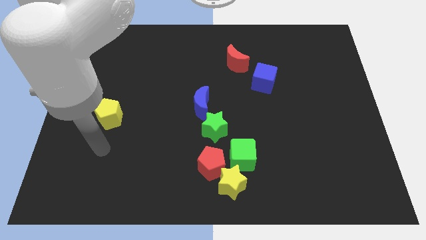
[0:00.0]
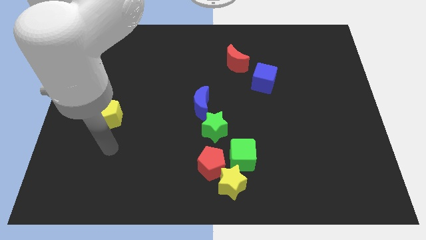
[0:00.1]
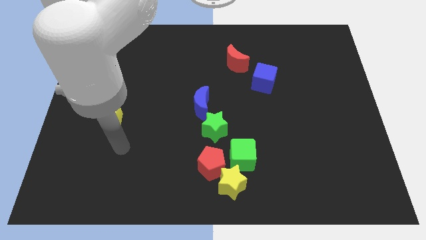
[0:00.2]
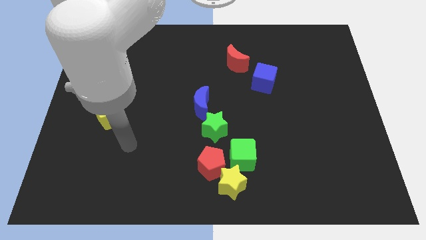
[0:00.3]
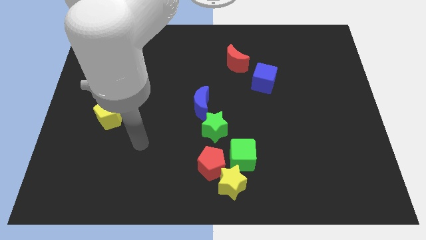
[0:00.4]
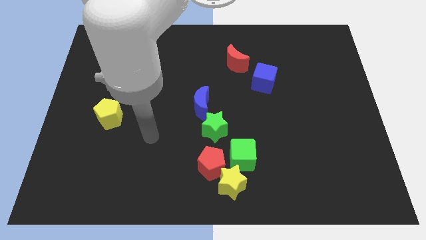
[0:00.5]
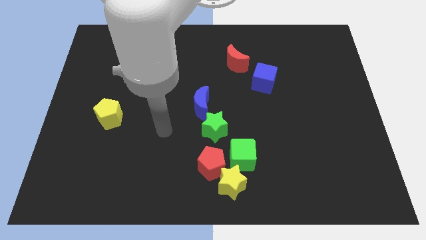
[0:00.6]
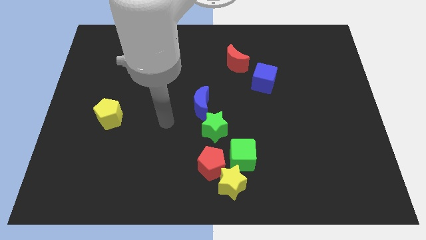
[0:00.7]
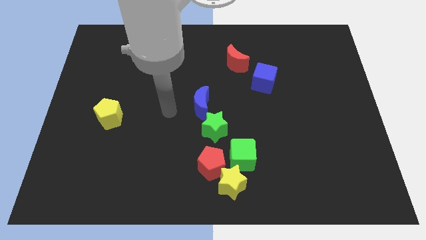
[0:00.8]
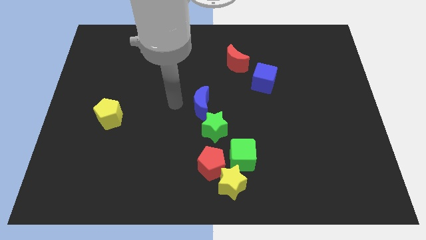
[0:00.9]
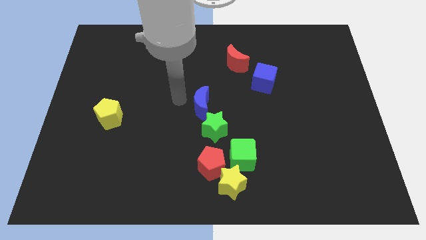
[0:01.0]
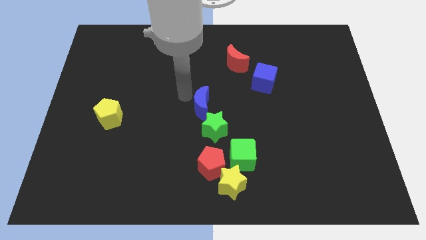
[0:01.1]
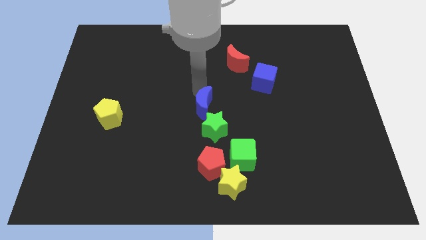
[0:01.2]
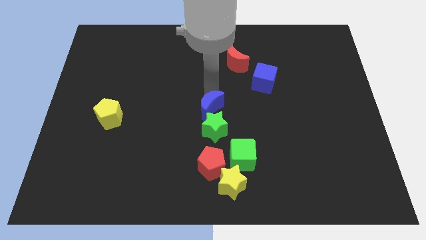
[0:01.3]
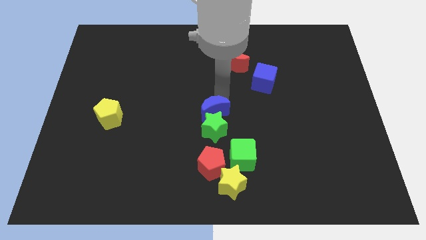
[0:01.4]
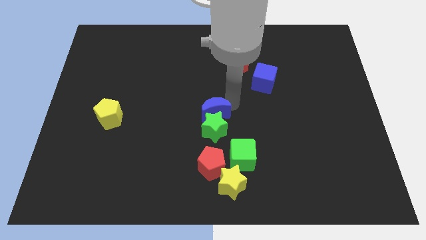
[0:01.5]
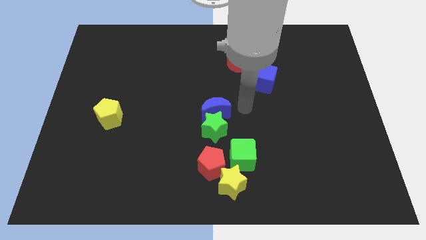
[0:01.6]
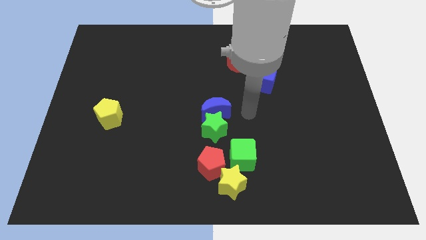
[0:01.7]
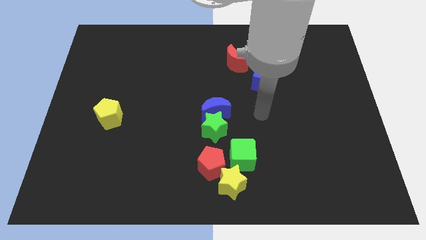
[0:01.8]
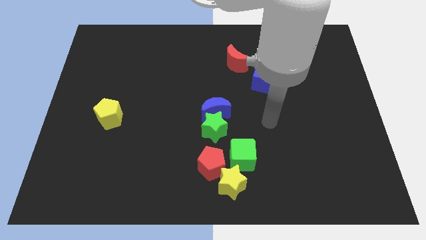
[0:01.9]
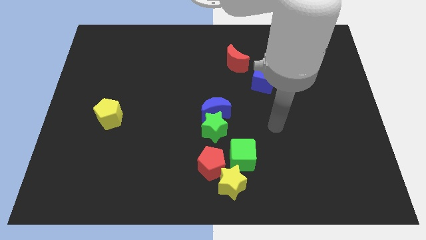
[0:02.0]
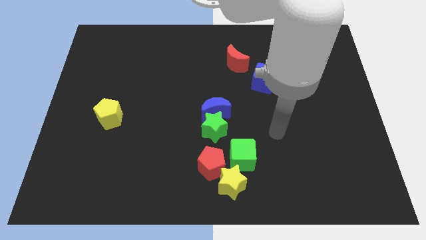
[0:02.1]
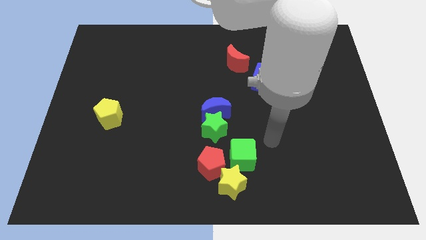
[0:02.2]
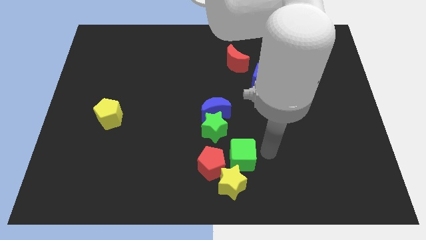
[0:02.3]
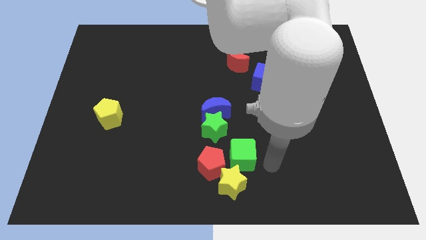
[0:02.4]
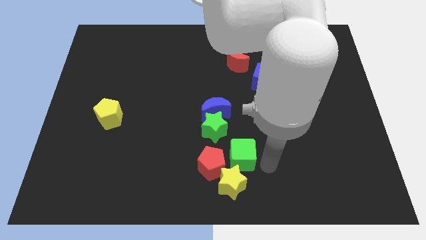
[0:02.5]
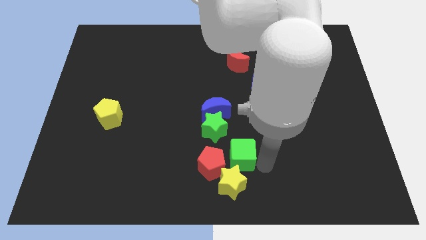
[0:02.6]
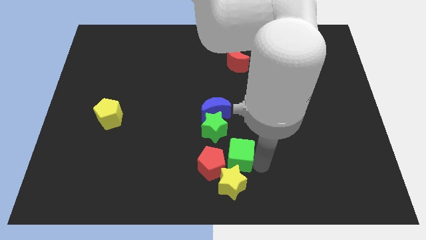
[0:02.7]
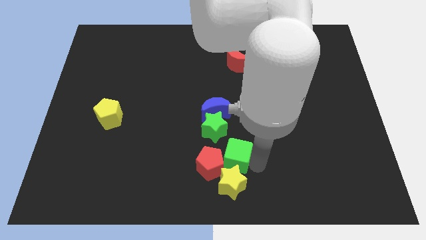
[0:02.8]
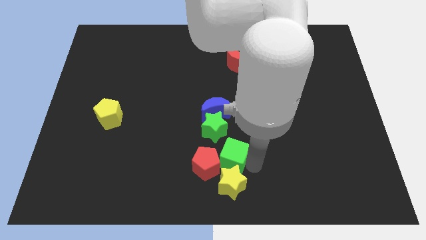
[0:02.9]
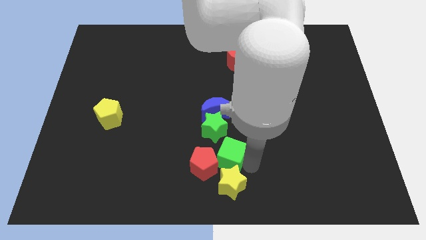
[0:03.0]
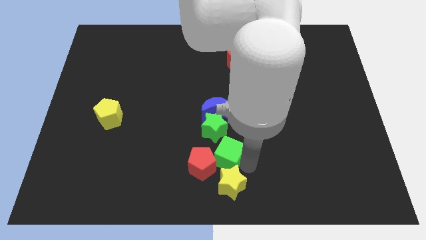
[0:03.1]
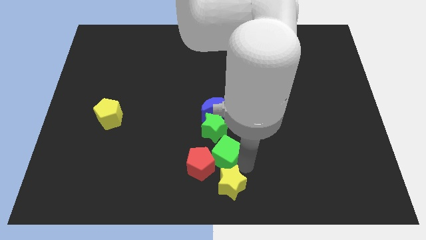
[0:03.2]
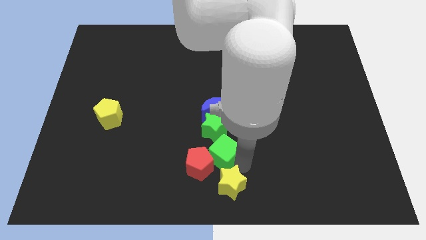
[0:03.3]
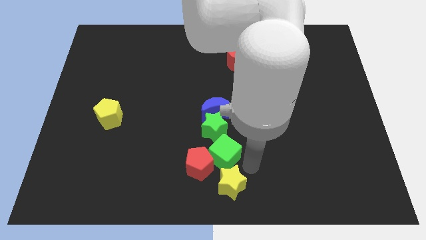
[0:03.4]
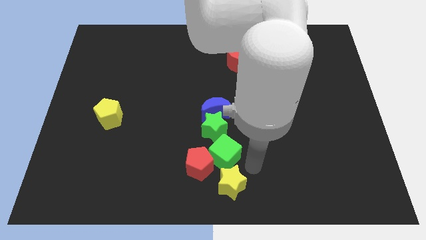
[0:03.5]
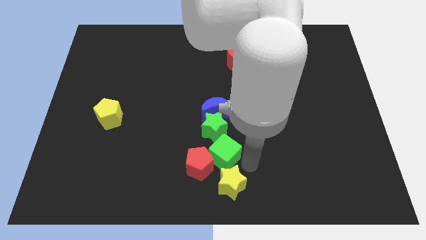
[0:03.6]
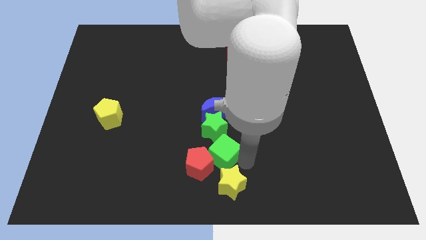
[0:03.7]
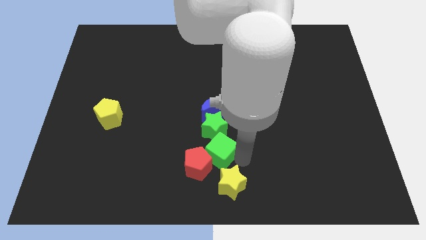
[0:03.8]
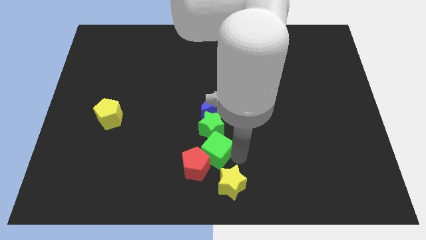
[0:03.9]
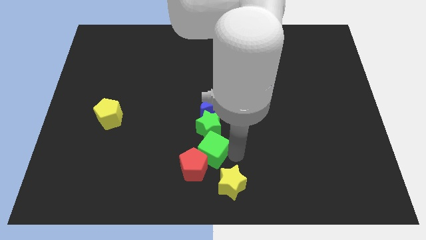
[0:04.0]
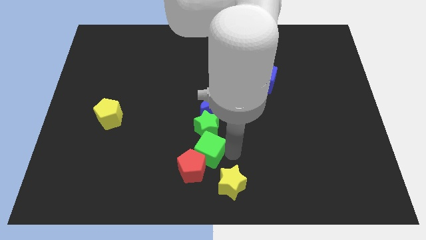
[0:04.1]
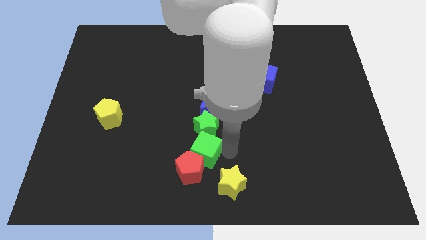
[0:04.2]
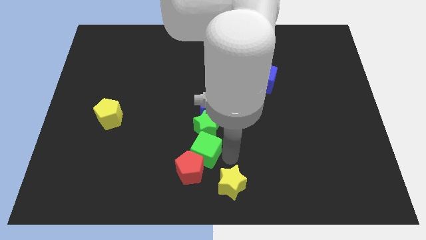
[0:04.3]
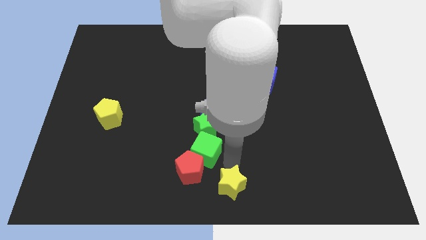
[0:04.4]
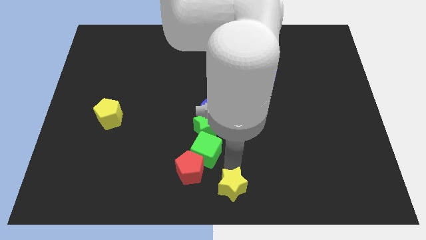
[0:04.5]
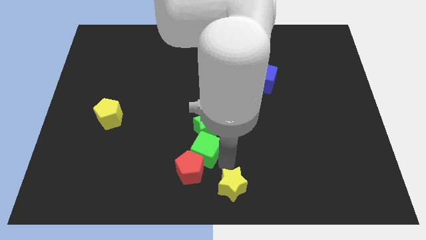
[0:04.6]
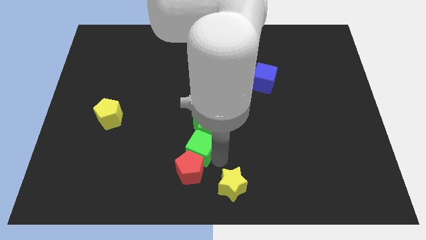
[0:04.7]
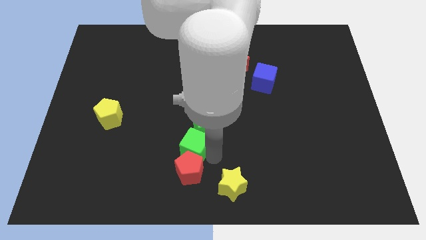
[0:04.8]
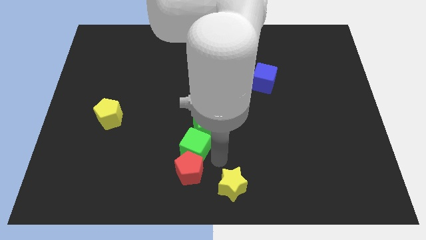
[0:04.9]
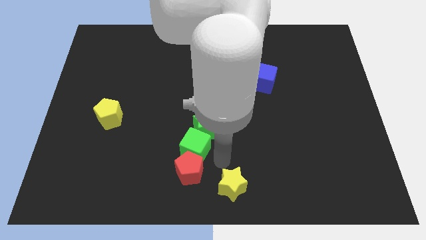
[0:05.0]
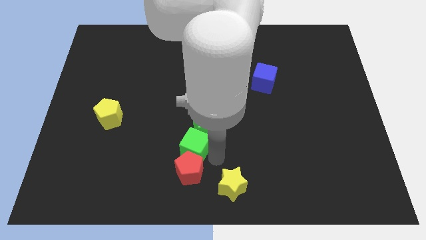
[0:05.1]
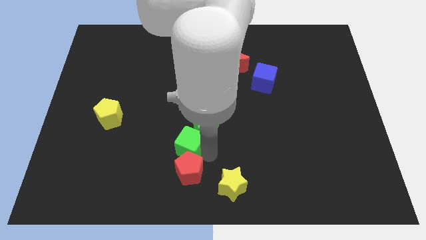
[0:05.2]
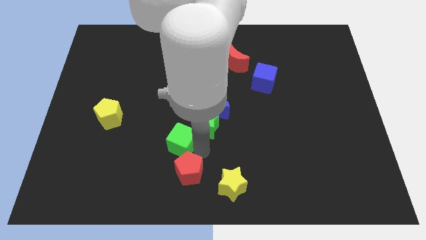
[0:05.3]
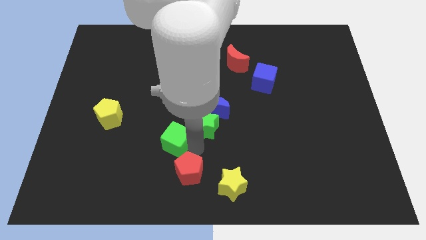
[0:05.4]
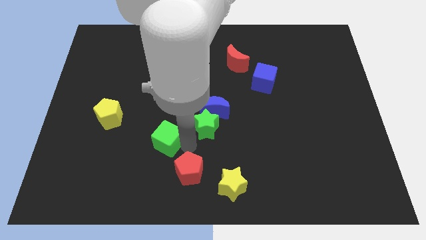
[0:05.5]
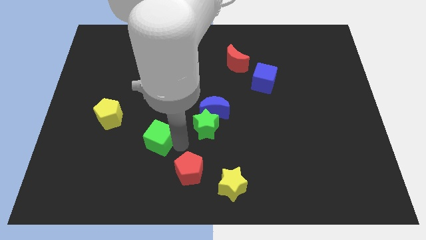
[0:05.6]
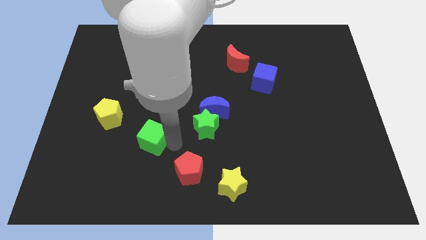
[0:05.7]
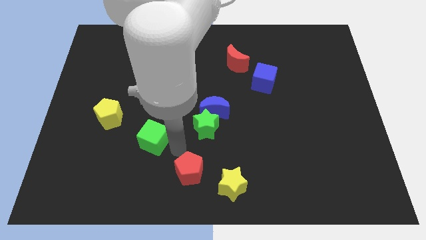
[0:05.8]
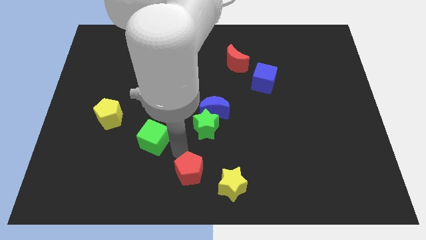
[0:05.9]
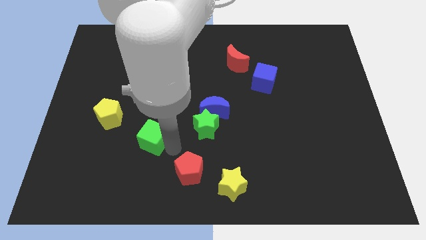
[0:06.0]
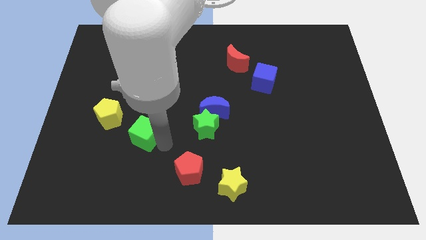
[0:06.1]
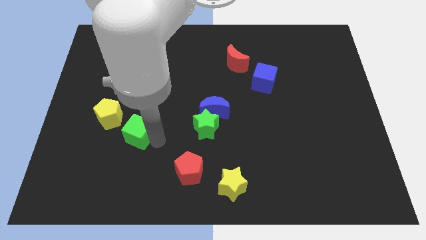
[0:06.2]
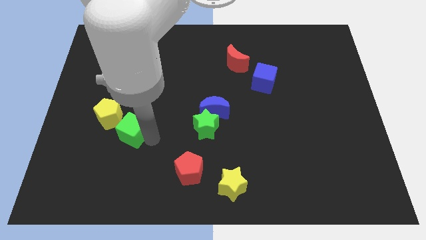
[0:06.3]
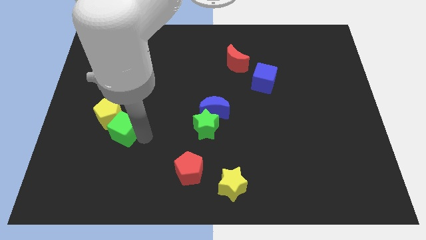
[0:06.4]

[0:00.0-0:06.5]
move the green cube towards the yellow pentagon

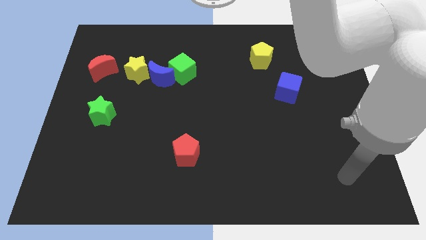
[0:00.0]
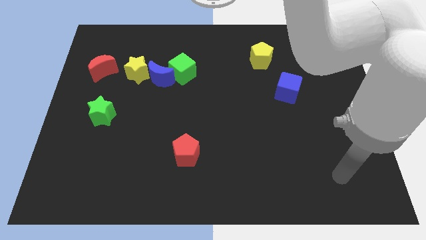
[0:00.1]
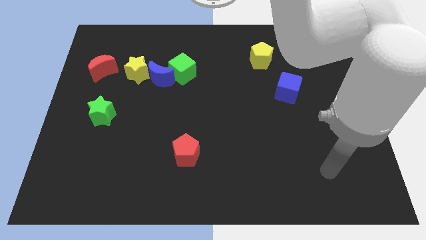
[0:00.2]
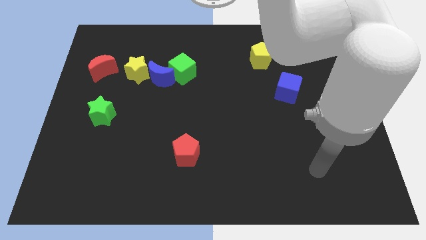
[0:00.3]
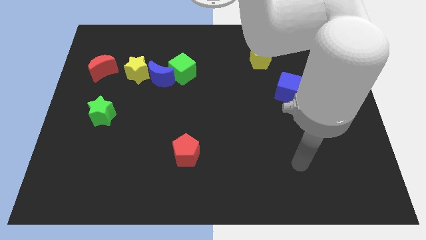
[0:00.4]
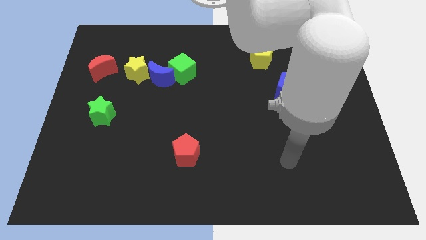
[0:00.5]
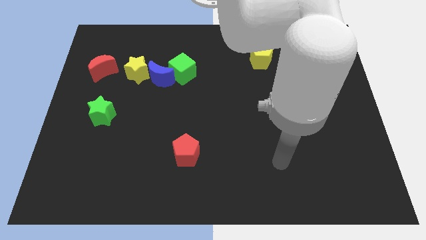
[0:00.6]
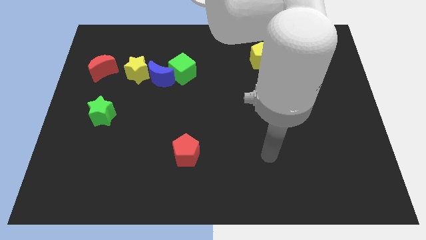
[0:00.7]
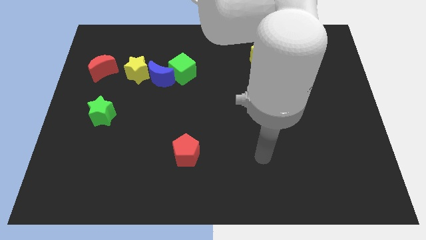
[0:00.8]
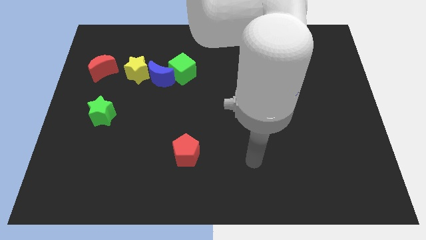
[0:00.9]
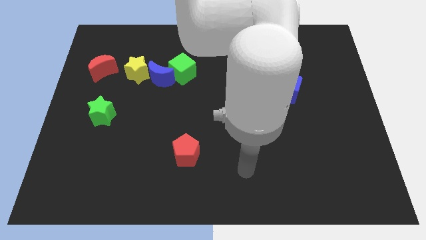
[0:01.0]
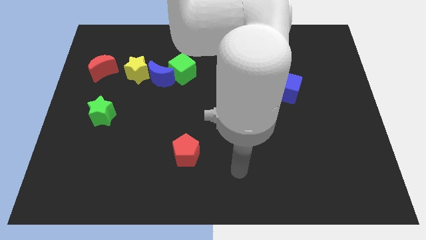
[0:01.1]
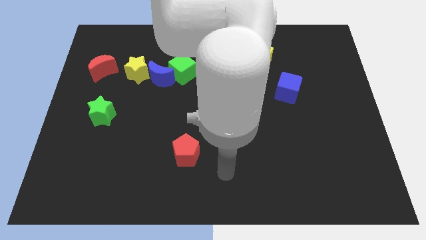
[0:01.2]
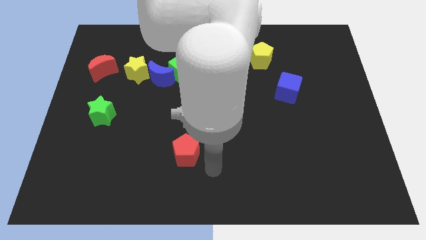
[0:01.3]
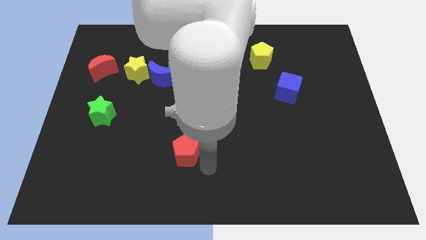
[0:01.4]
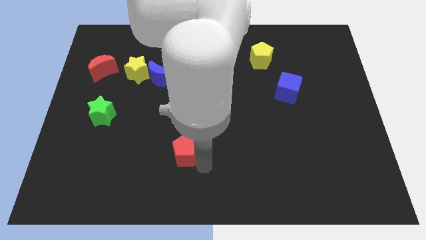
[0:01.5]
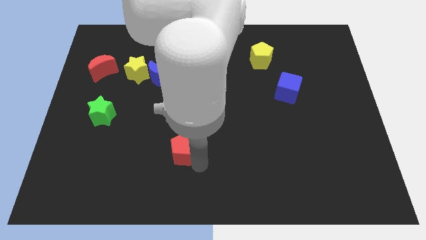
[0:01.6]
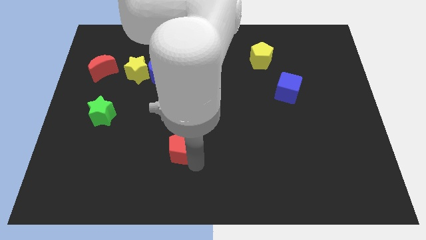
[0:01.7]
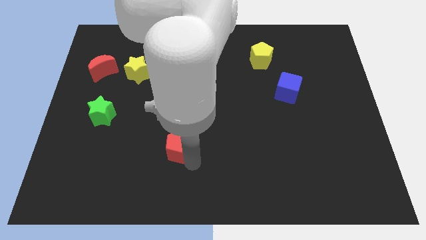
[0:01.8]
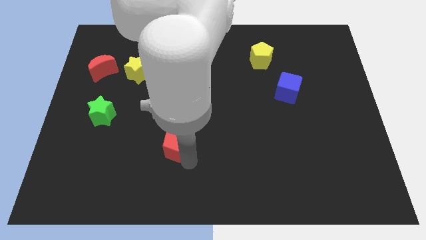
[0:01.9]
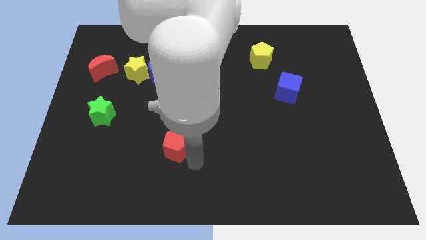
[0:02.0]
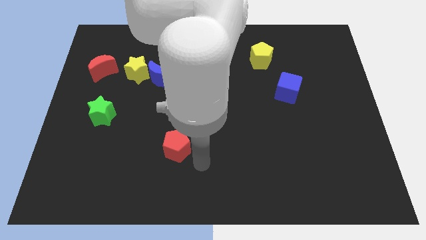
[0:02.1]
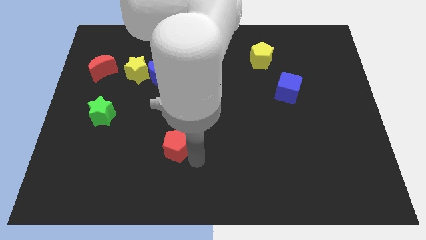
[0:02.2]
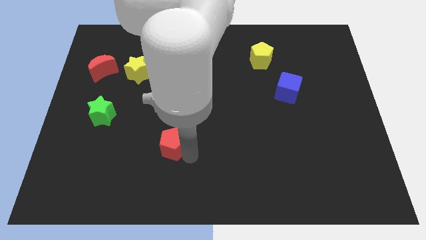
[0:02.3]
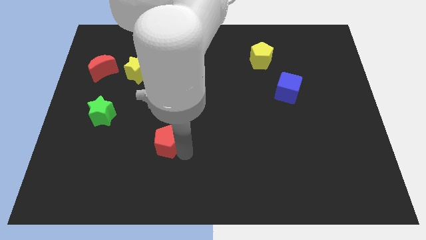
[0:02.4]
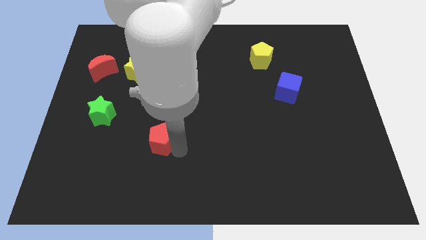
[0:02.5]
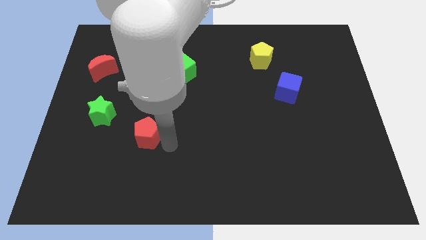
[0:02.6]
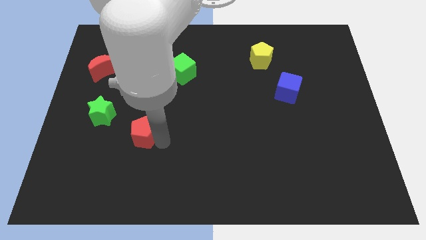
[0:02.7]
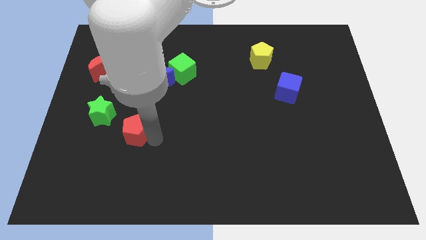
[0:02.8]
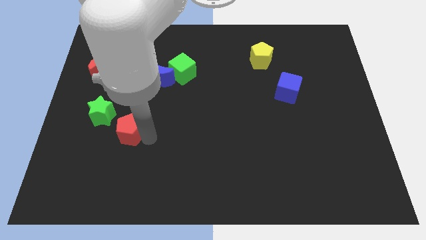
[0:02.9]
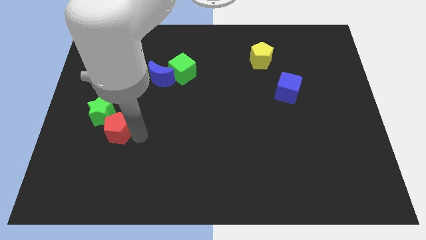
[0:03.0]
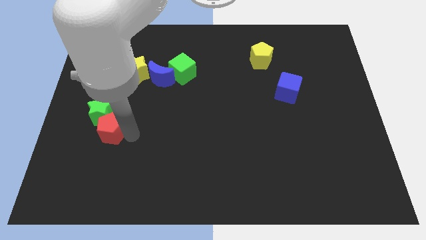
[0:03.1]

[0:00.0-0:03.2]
push the red pentagon next to the green star
